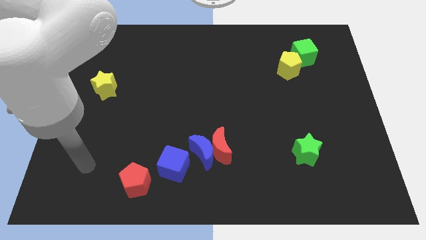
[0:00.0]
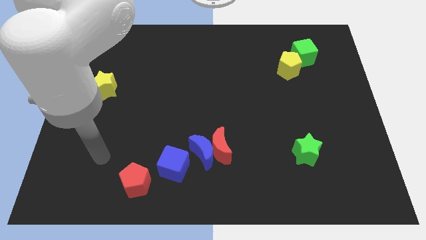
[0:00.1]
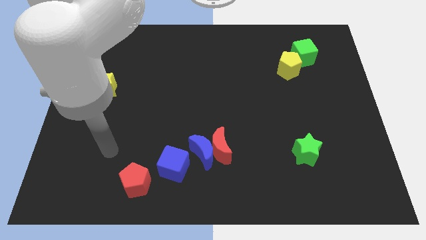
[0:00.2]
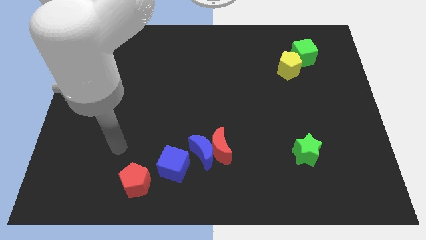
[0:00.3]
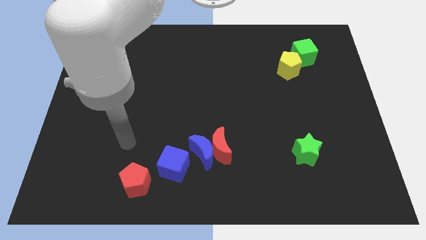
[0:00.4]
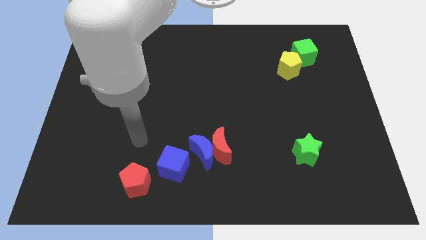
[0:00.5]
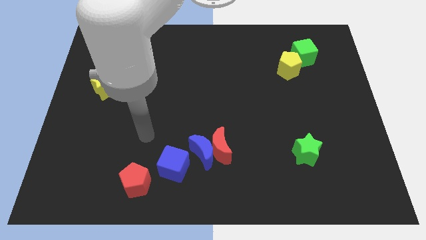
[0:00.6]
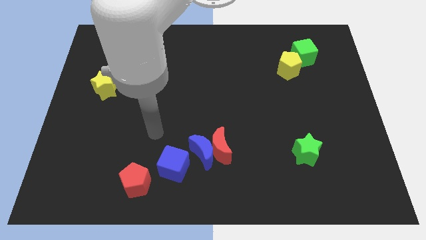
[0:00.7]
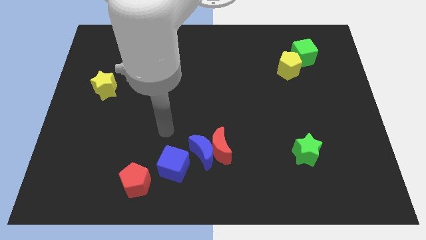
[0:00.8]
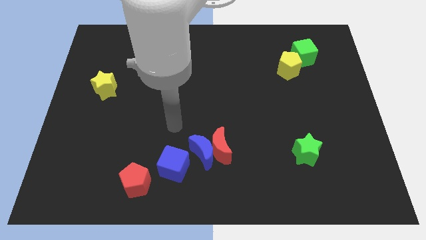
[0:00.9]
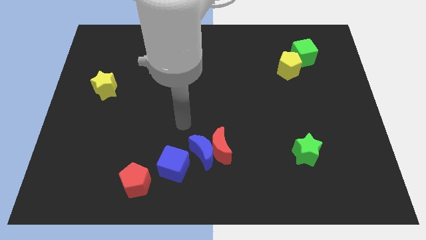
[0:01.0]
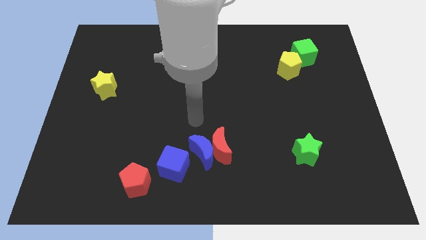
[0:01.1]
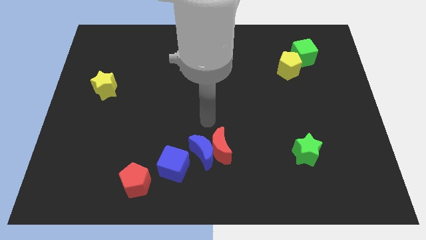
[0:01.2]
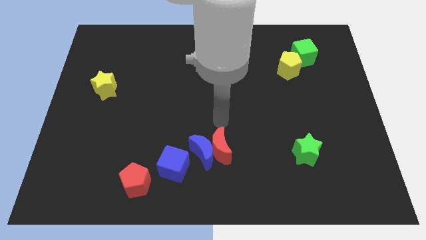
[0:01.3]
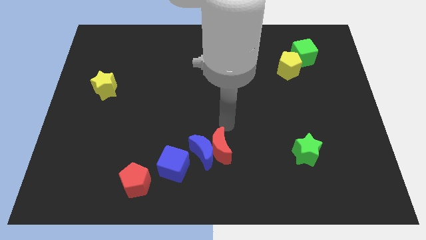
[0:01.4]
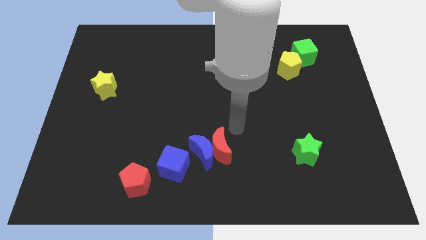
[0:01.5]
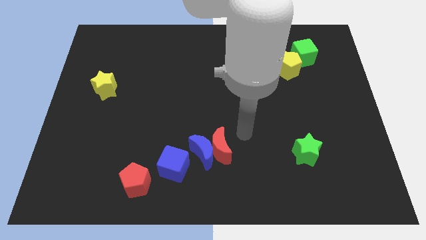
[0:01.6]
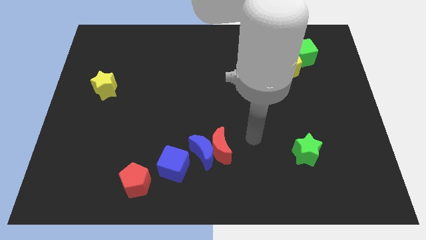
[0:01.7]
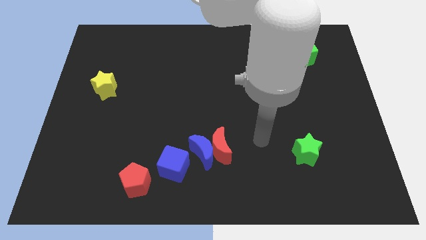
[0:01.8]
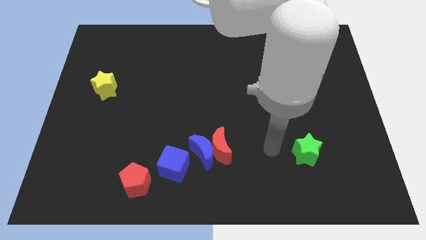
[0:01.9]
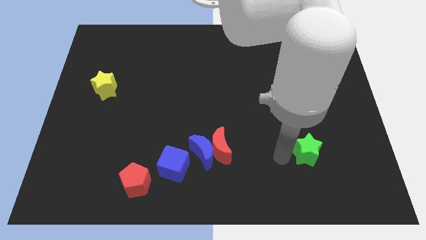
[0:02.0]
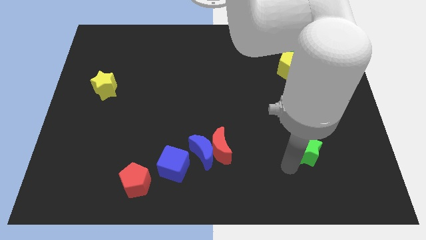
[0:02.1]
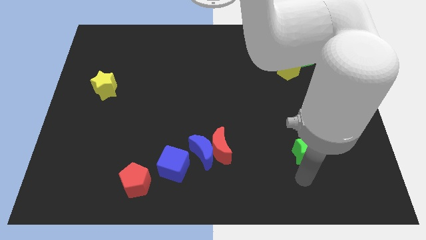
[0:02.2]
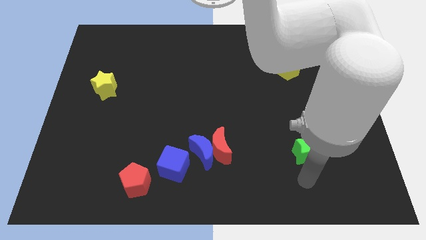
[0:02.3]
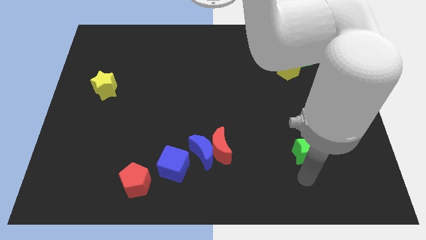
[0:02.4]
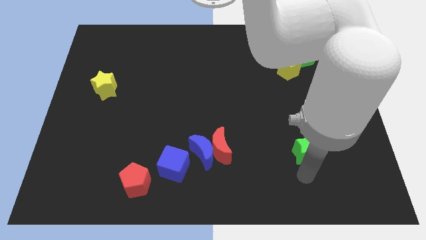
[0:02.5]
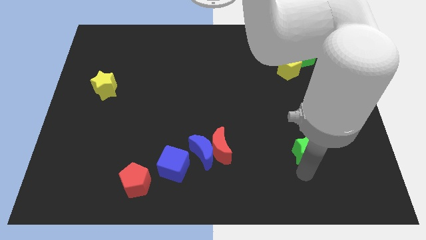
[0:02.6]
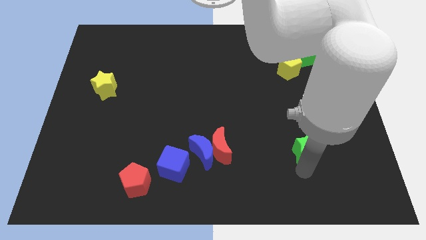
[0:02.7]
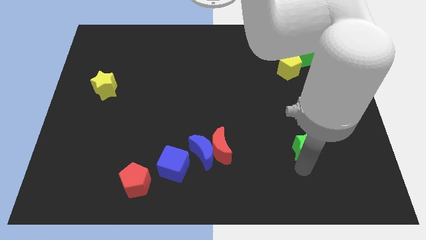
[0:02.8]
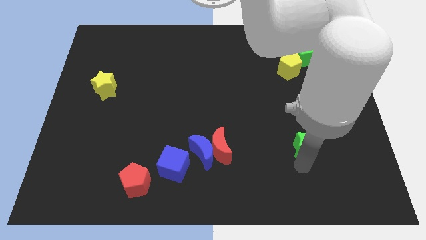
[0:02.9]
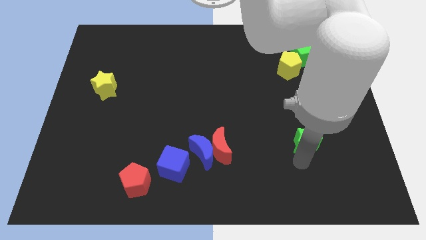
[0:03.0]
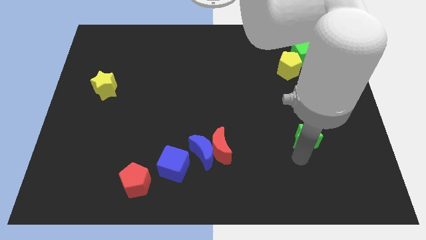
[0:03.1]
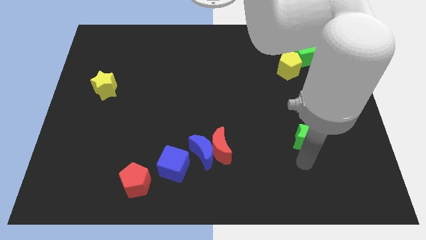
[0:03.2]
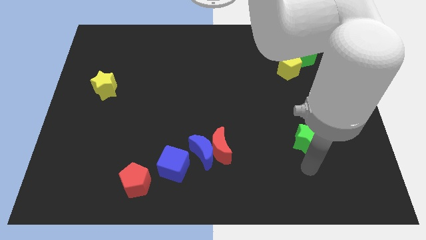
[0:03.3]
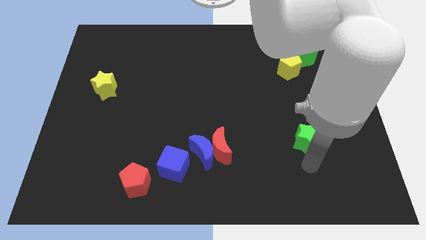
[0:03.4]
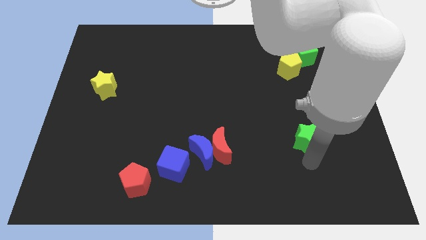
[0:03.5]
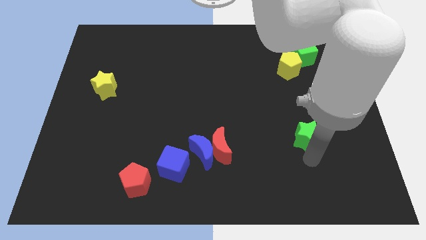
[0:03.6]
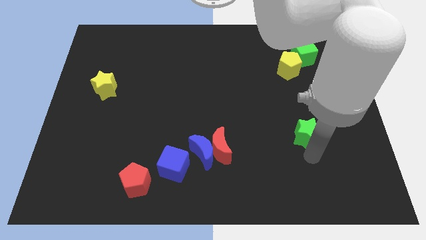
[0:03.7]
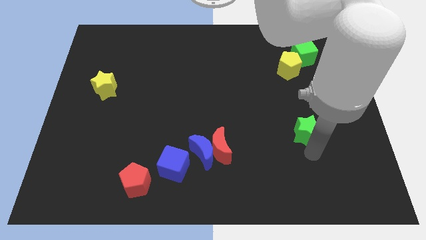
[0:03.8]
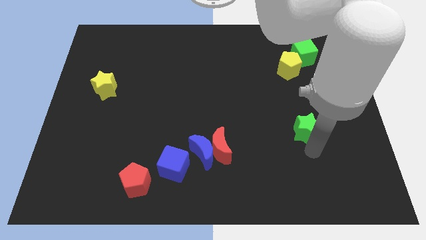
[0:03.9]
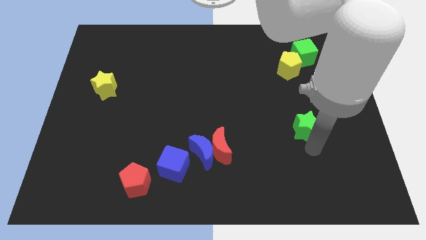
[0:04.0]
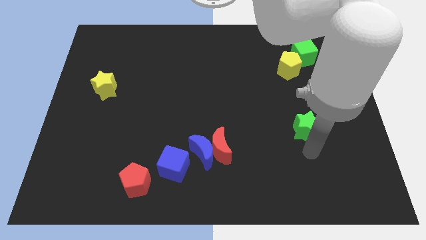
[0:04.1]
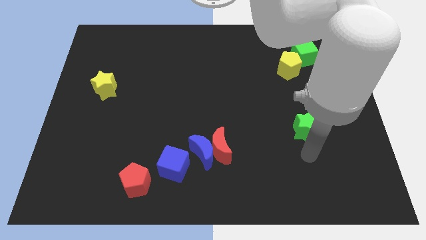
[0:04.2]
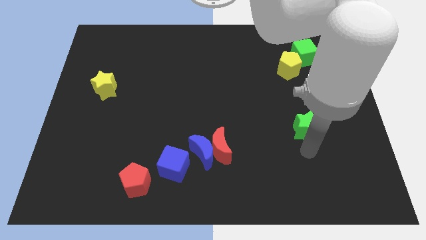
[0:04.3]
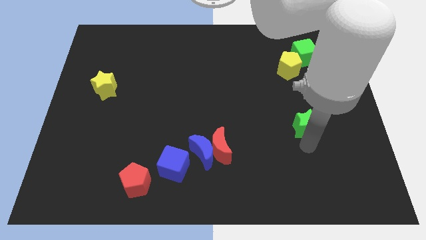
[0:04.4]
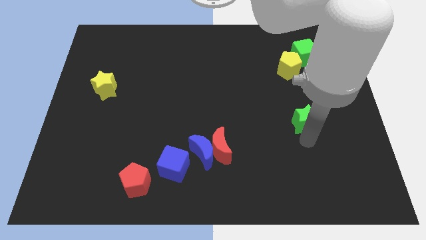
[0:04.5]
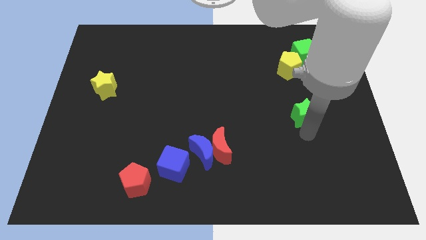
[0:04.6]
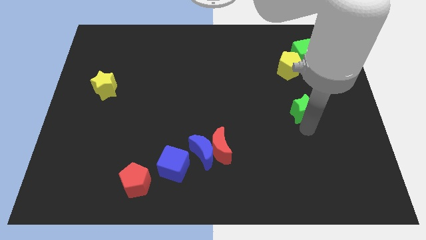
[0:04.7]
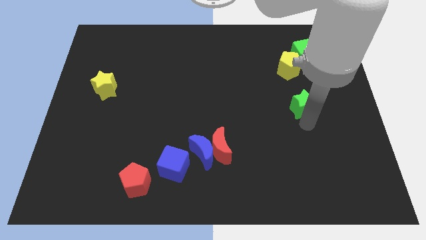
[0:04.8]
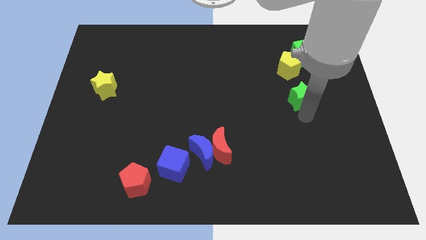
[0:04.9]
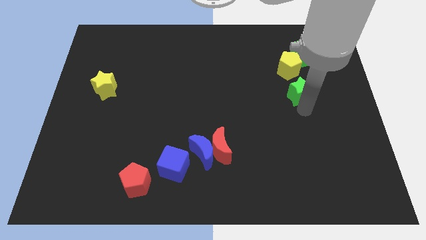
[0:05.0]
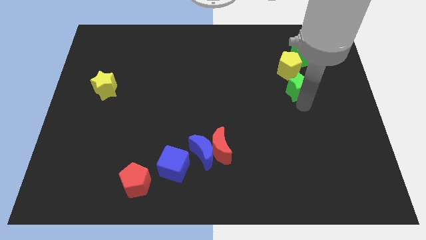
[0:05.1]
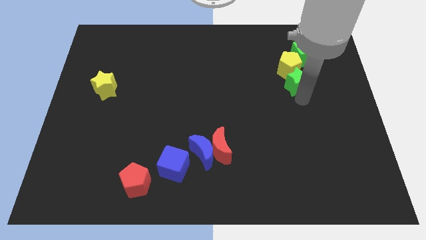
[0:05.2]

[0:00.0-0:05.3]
push the green star next to the yellow pentagon

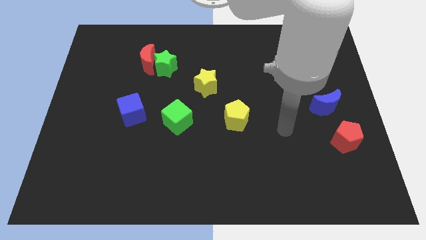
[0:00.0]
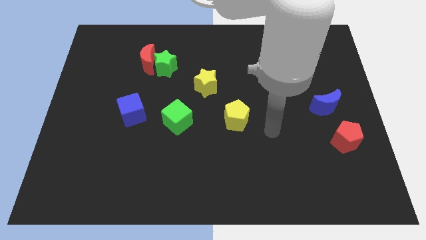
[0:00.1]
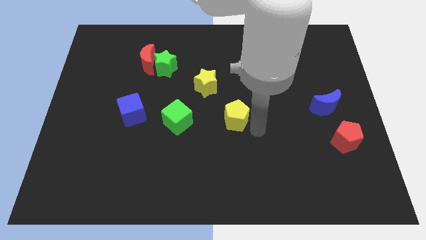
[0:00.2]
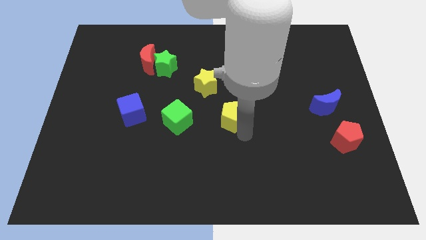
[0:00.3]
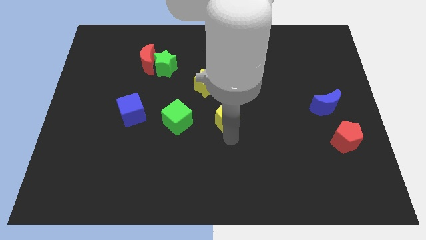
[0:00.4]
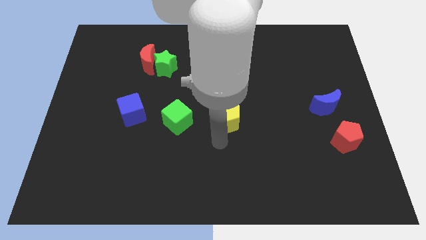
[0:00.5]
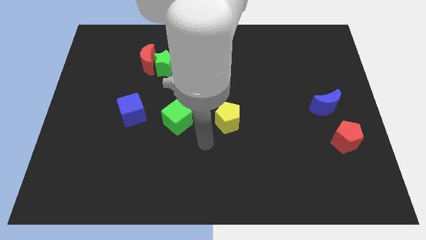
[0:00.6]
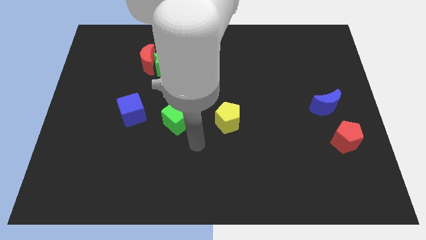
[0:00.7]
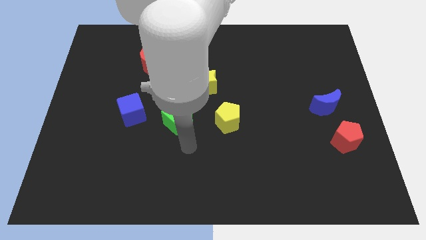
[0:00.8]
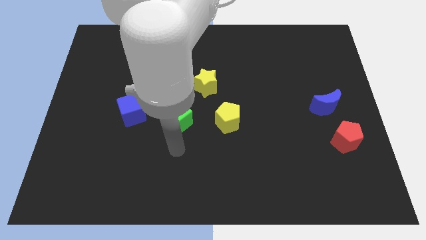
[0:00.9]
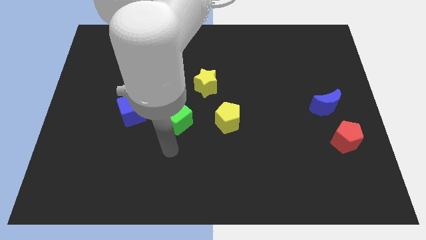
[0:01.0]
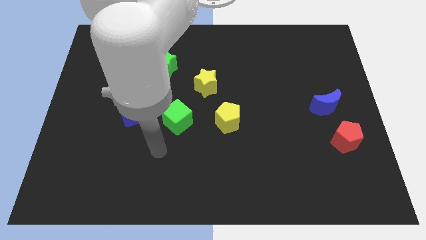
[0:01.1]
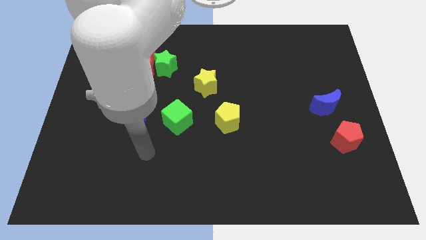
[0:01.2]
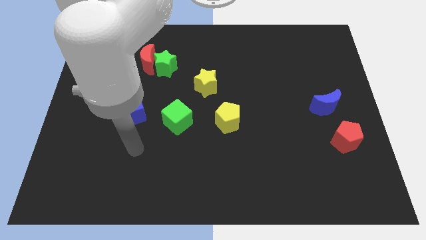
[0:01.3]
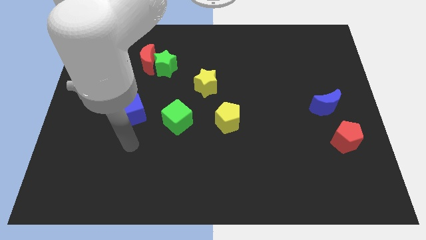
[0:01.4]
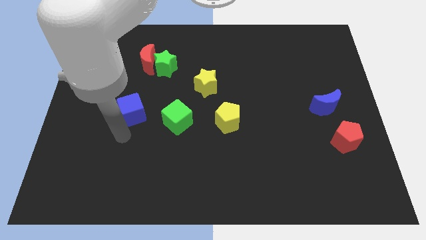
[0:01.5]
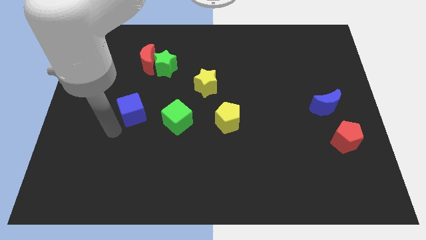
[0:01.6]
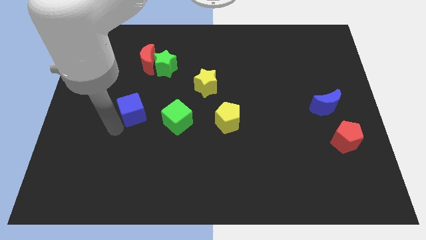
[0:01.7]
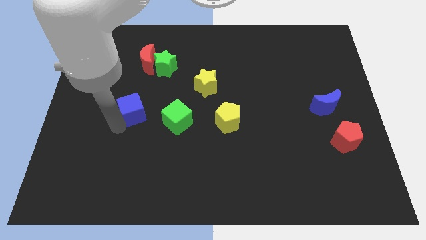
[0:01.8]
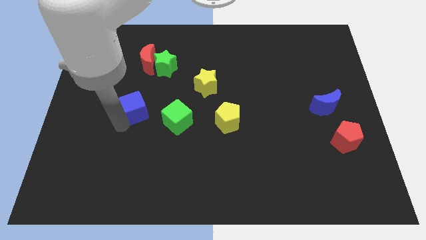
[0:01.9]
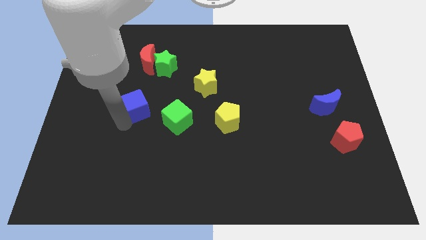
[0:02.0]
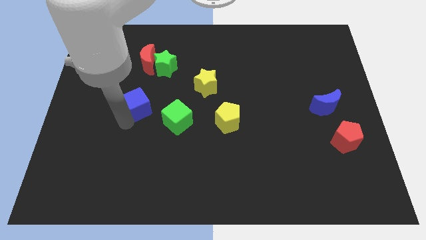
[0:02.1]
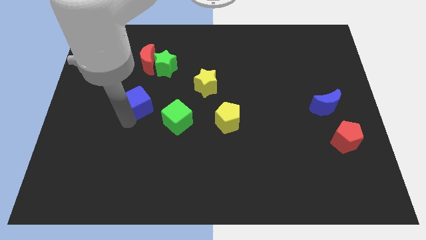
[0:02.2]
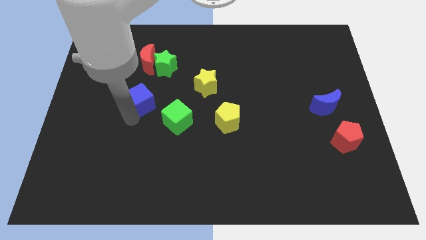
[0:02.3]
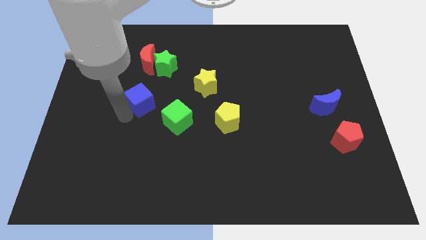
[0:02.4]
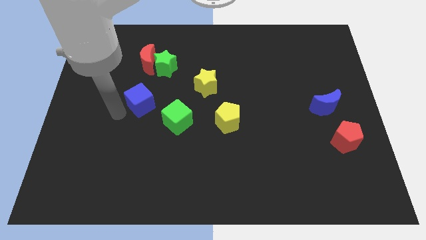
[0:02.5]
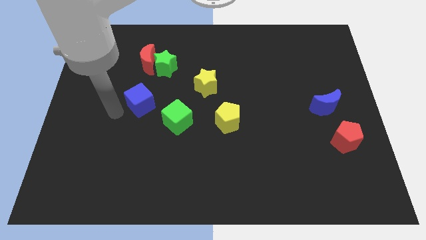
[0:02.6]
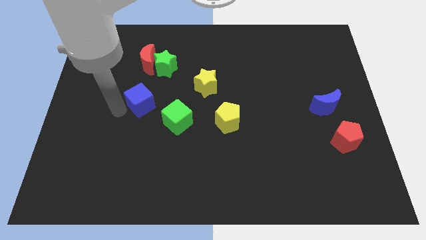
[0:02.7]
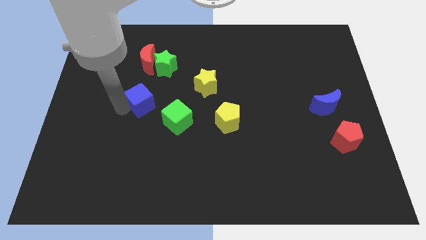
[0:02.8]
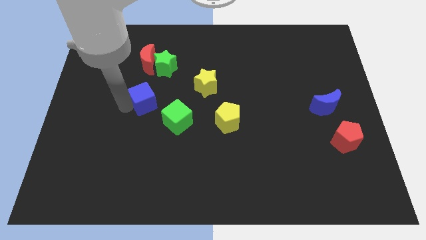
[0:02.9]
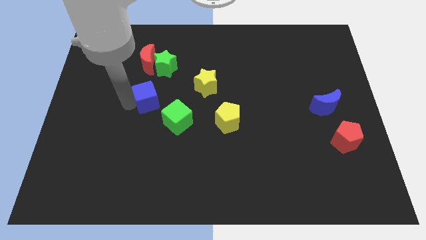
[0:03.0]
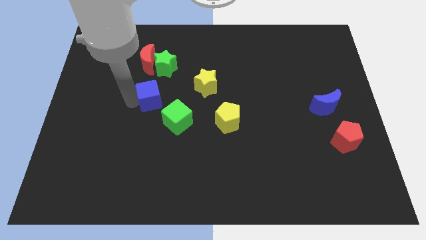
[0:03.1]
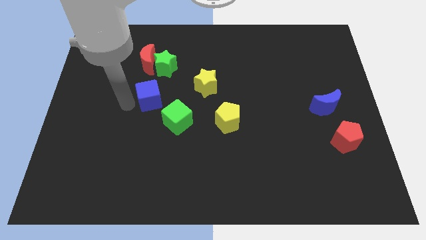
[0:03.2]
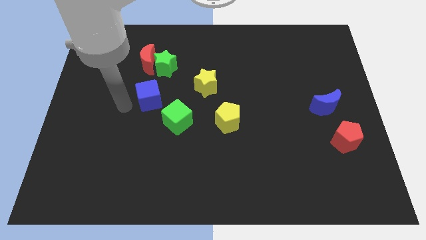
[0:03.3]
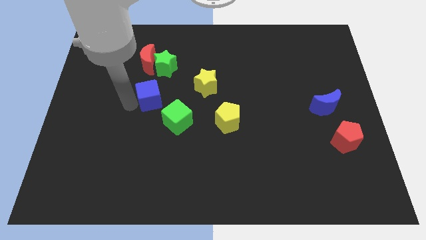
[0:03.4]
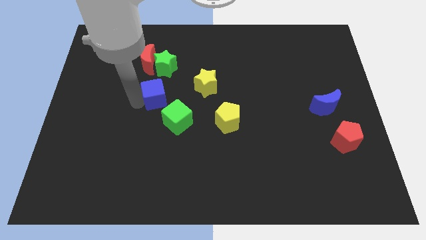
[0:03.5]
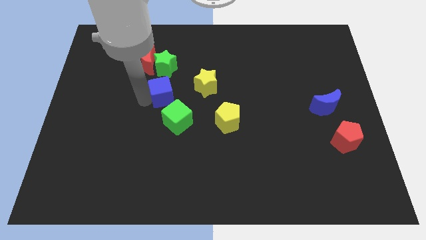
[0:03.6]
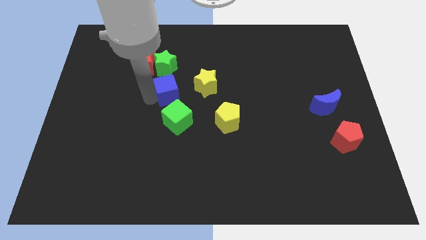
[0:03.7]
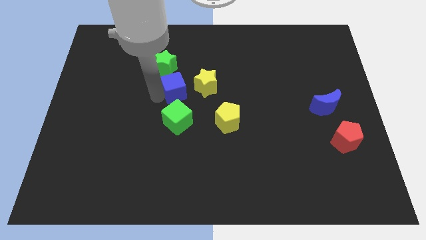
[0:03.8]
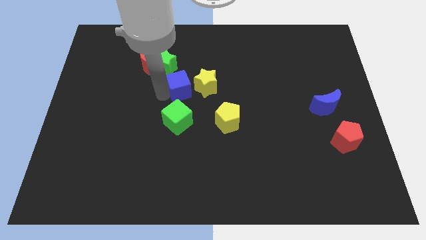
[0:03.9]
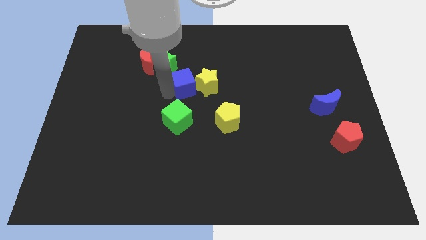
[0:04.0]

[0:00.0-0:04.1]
put the blue cube towards the yellow star
